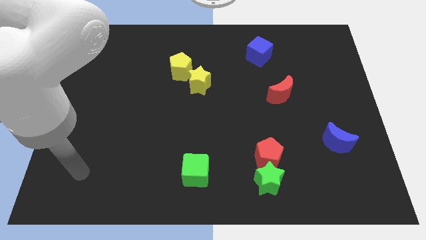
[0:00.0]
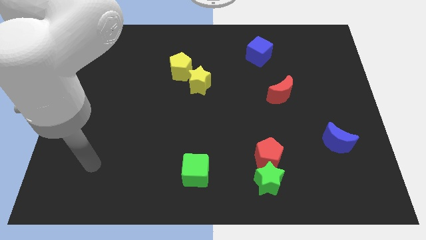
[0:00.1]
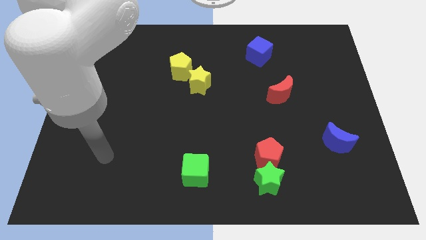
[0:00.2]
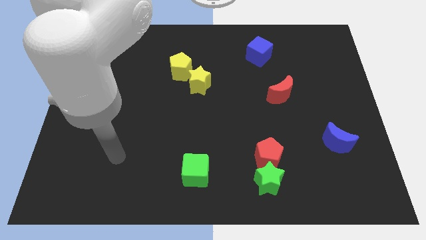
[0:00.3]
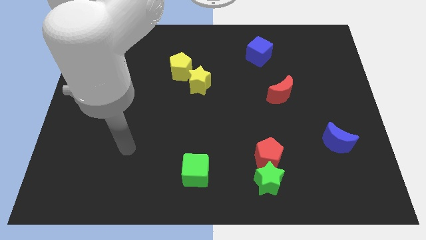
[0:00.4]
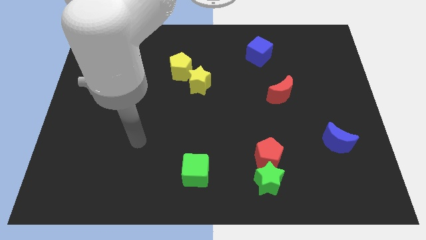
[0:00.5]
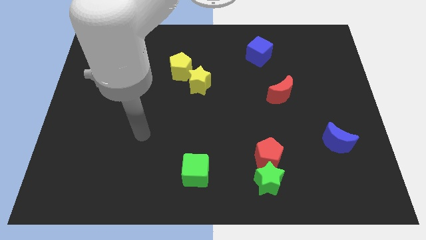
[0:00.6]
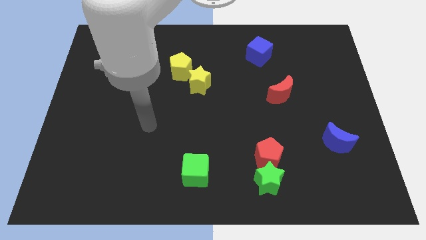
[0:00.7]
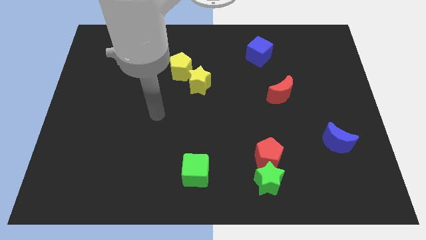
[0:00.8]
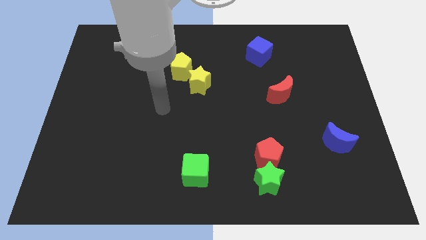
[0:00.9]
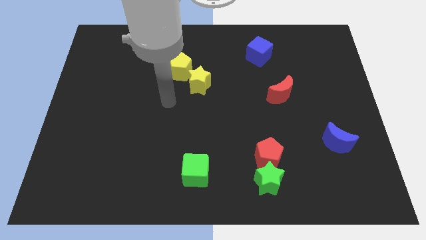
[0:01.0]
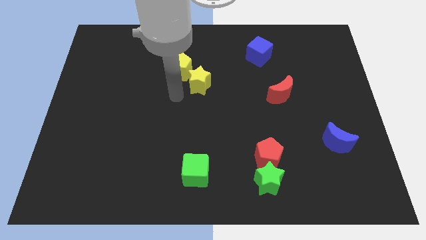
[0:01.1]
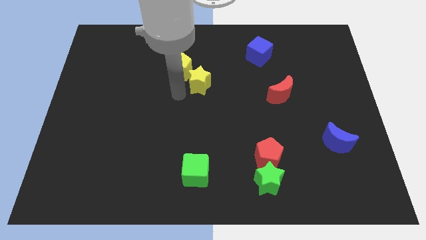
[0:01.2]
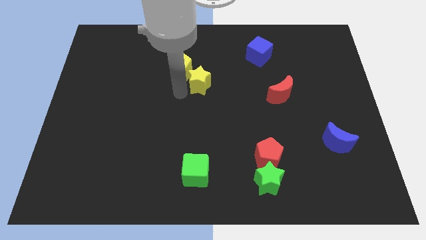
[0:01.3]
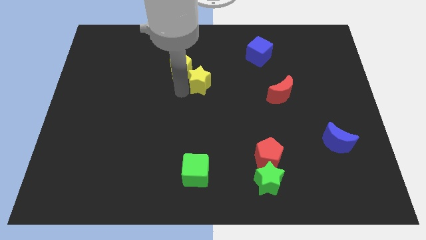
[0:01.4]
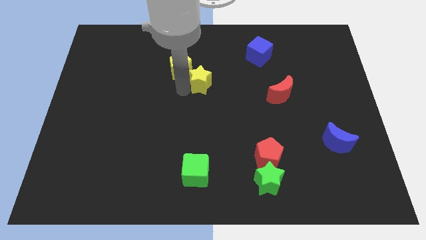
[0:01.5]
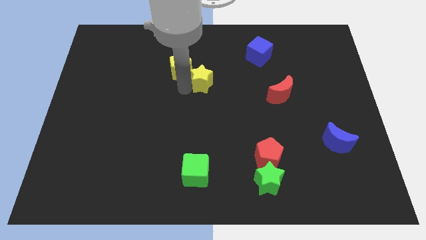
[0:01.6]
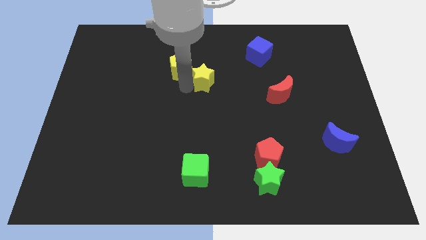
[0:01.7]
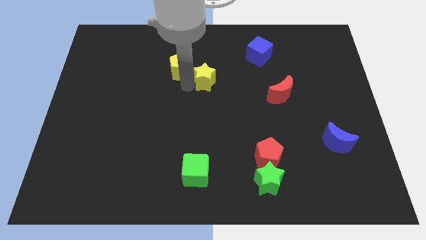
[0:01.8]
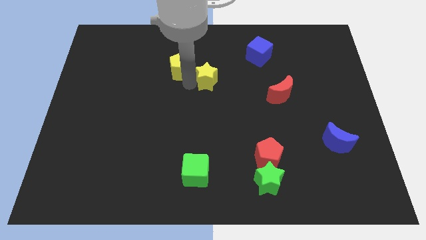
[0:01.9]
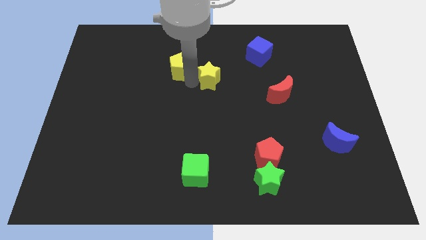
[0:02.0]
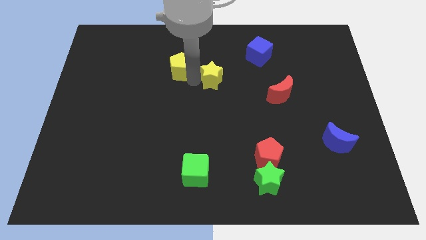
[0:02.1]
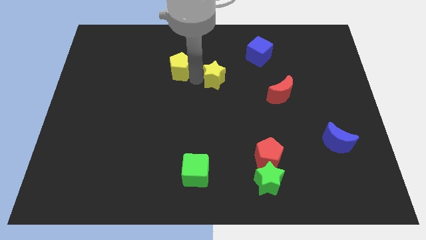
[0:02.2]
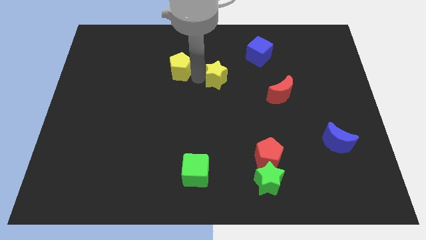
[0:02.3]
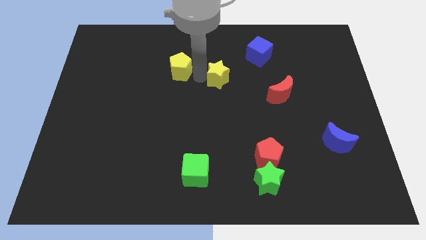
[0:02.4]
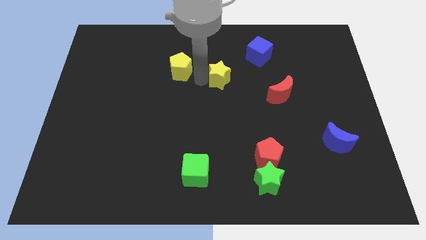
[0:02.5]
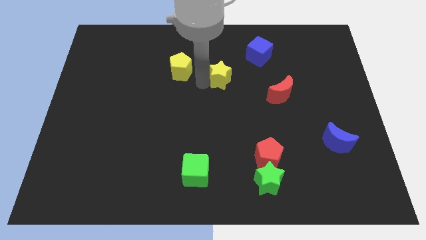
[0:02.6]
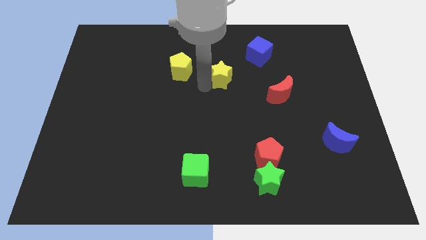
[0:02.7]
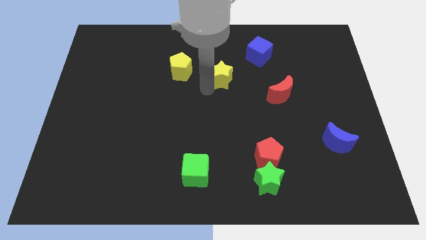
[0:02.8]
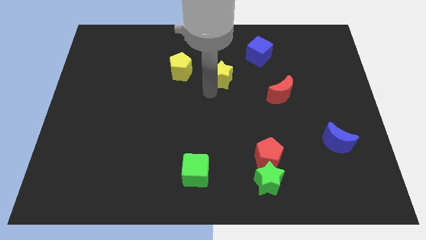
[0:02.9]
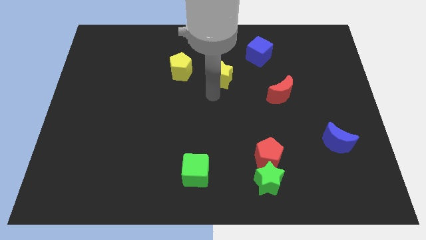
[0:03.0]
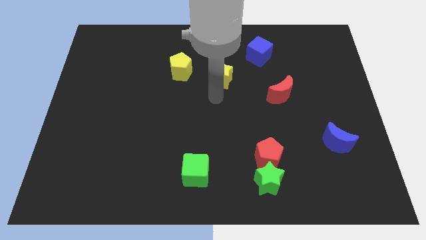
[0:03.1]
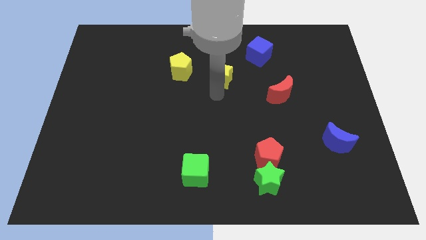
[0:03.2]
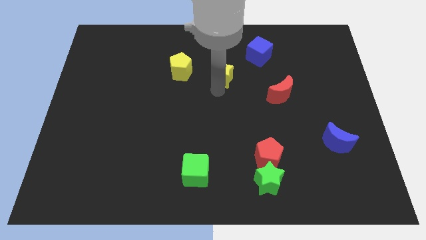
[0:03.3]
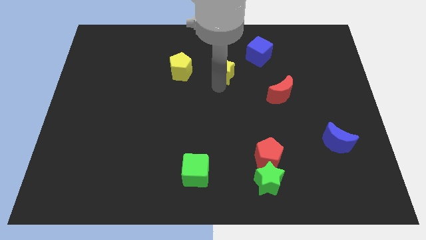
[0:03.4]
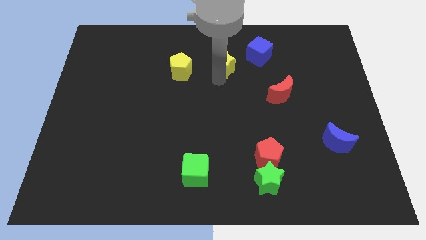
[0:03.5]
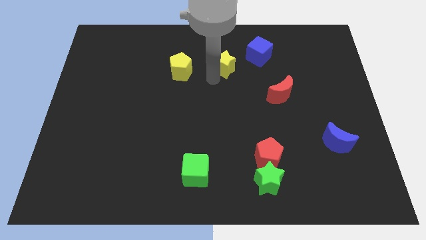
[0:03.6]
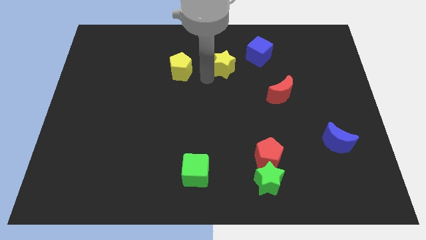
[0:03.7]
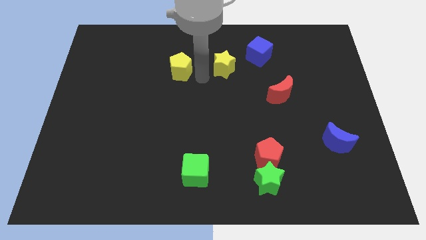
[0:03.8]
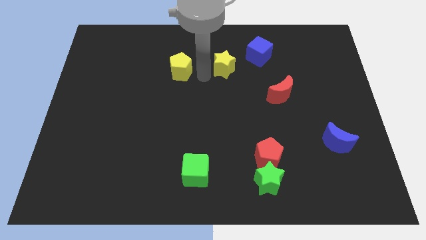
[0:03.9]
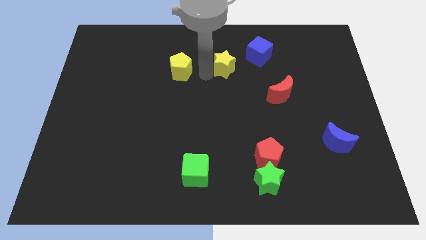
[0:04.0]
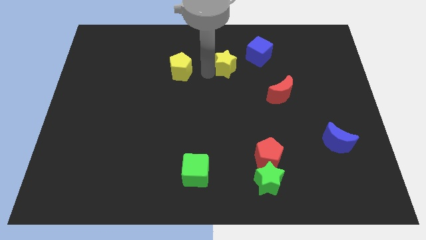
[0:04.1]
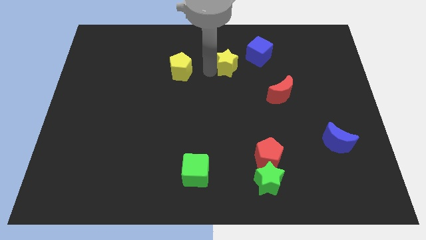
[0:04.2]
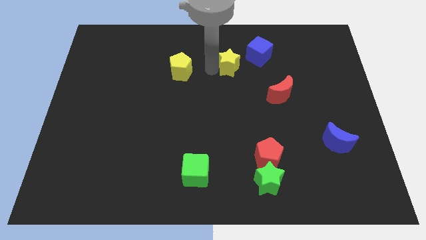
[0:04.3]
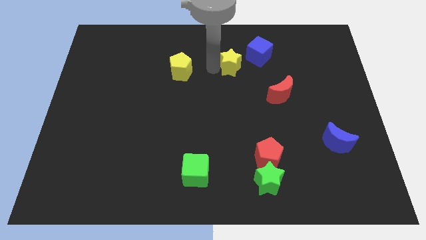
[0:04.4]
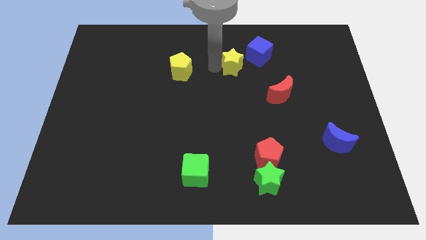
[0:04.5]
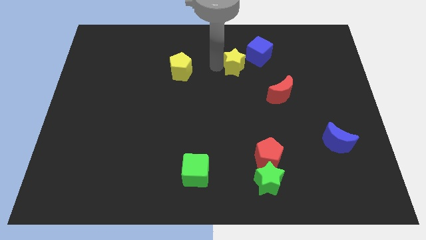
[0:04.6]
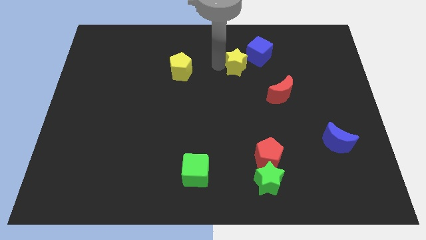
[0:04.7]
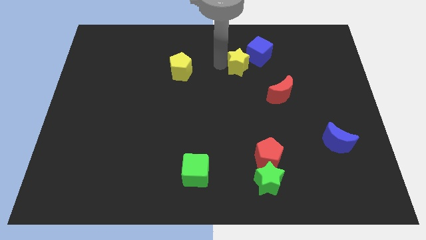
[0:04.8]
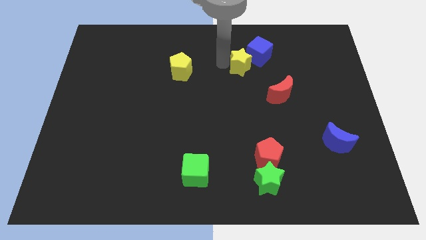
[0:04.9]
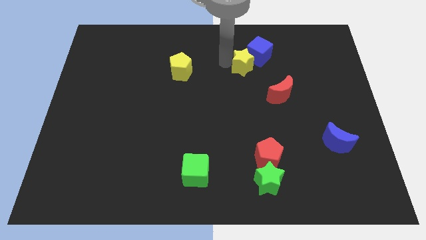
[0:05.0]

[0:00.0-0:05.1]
push the yellow star next to the blue cube

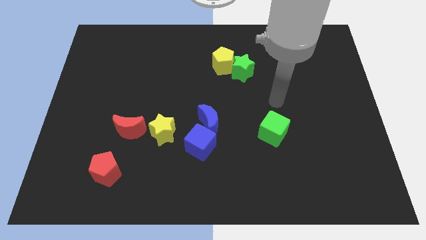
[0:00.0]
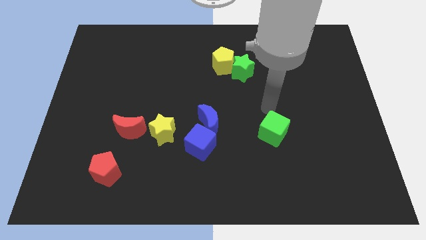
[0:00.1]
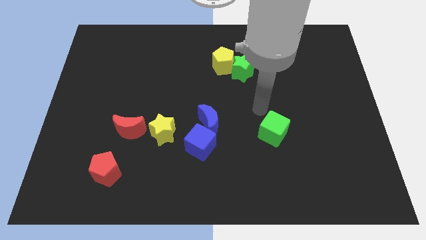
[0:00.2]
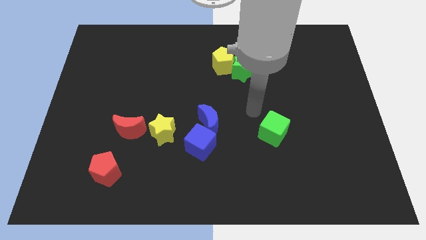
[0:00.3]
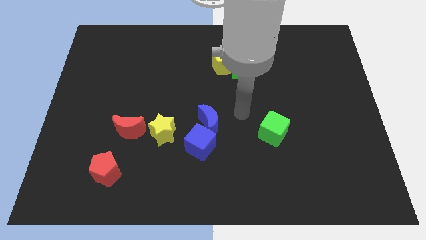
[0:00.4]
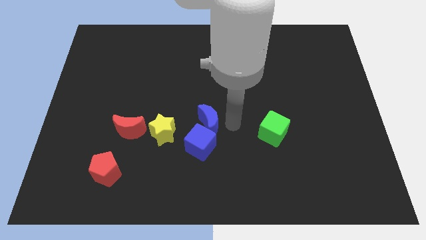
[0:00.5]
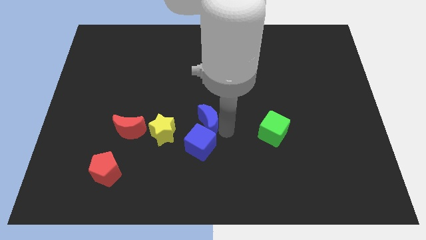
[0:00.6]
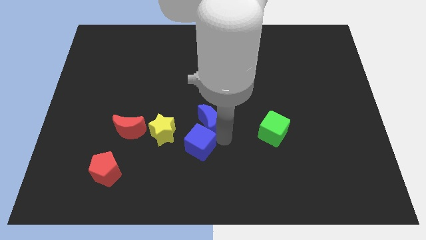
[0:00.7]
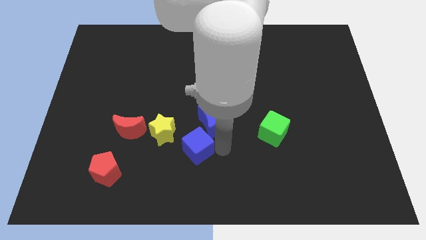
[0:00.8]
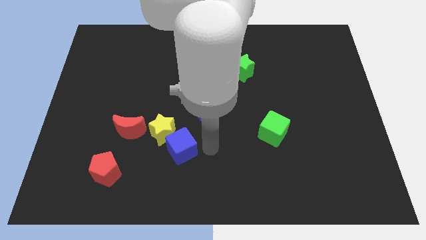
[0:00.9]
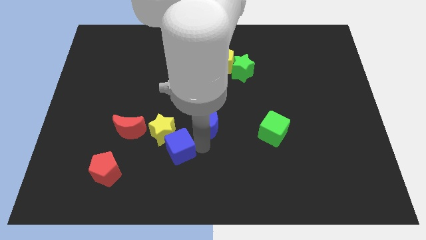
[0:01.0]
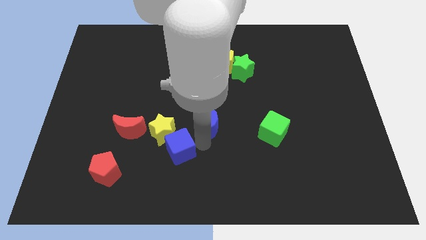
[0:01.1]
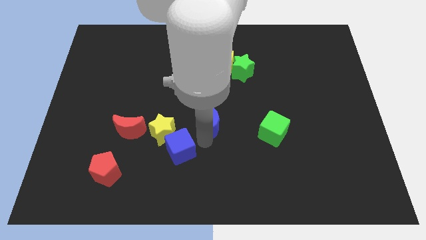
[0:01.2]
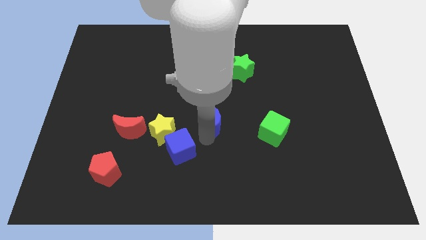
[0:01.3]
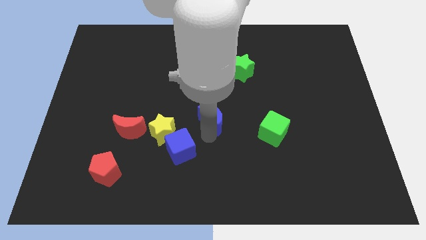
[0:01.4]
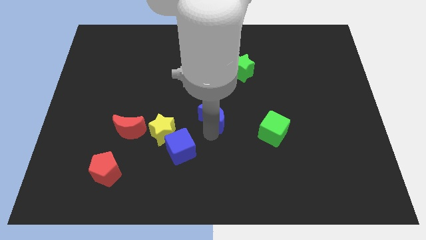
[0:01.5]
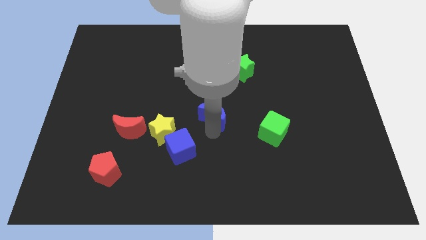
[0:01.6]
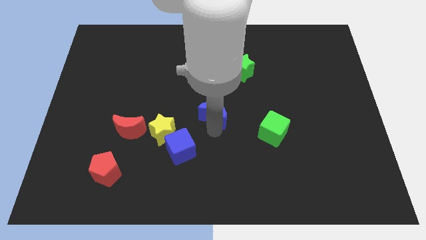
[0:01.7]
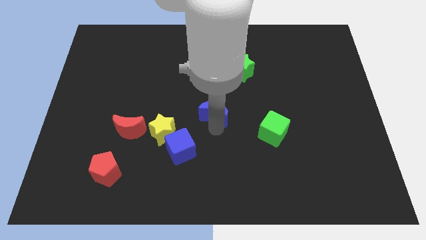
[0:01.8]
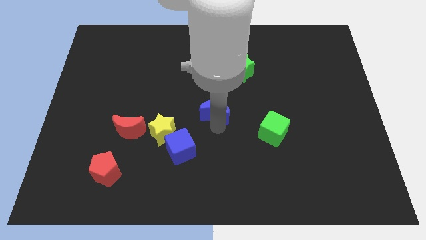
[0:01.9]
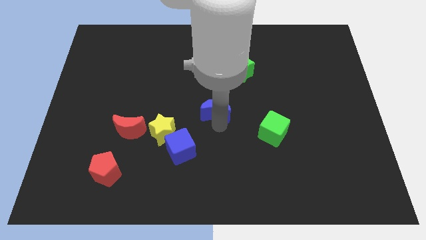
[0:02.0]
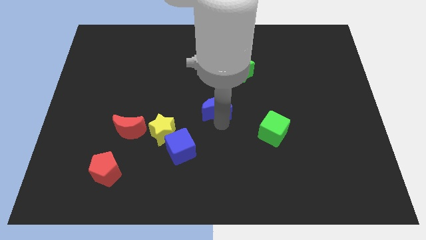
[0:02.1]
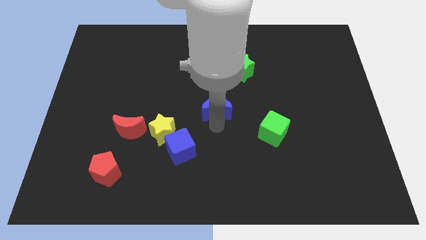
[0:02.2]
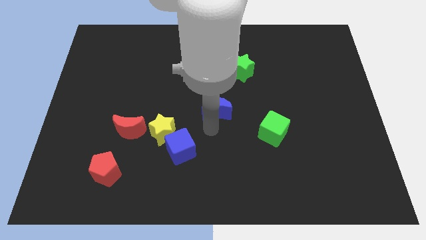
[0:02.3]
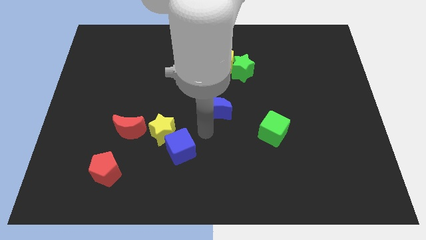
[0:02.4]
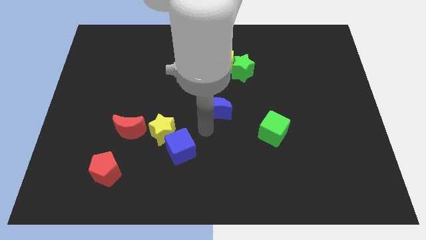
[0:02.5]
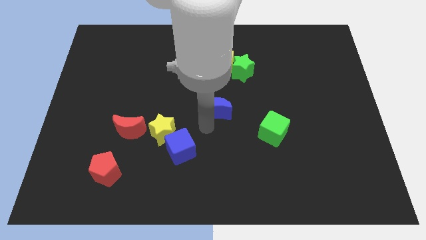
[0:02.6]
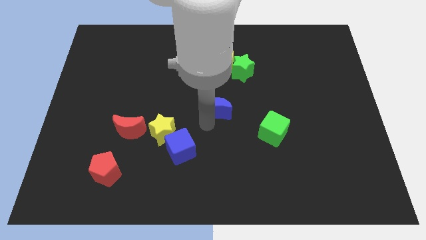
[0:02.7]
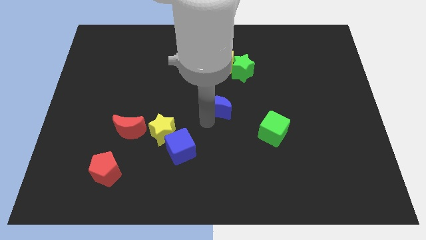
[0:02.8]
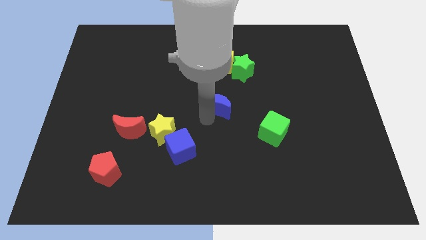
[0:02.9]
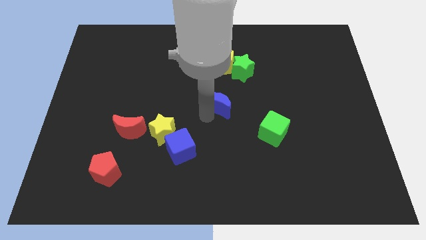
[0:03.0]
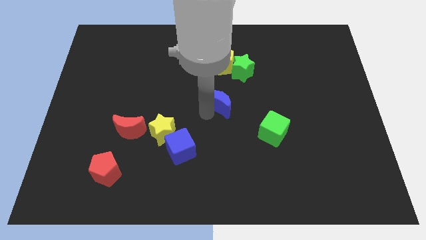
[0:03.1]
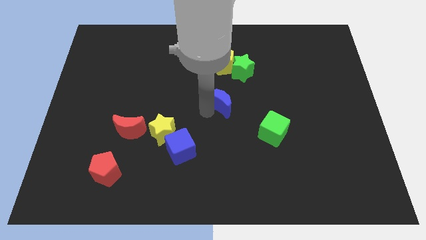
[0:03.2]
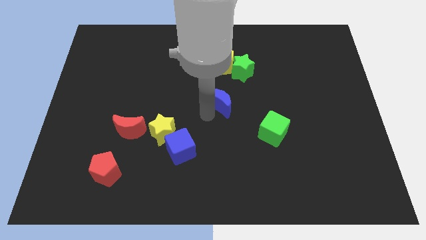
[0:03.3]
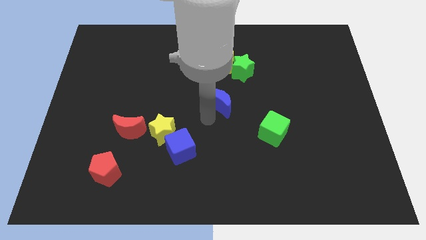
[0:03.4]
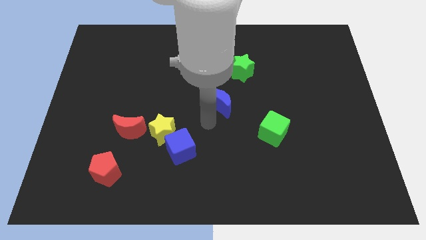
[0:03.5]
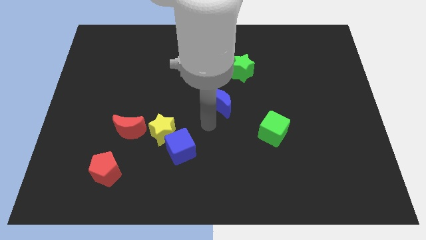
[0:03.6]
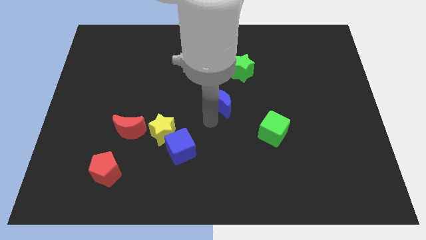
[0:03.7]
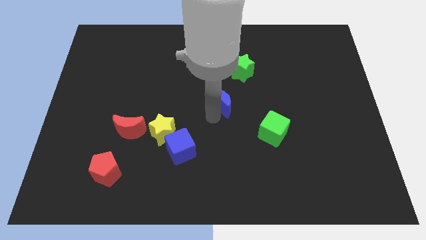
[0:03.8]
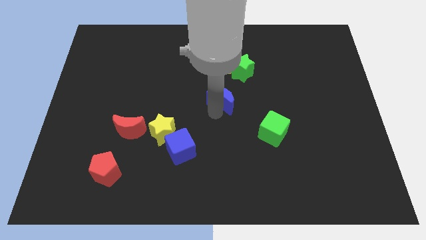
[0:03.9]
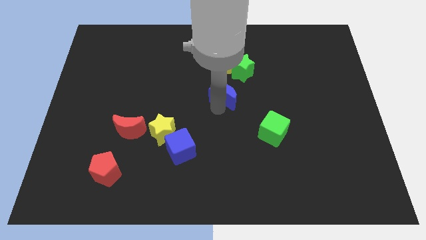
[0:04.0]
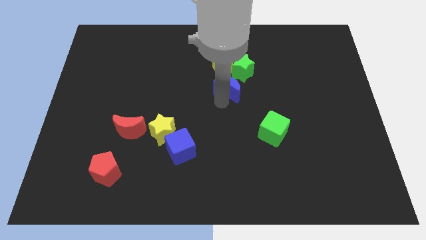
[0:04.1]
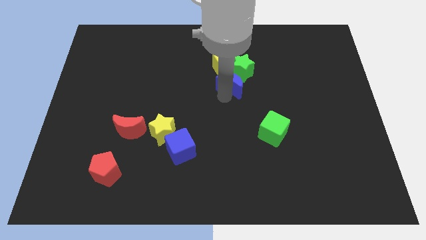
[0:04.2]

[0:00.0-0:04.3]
slide the blue moon next to the green star
